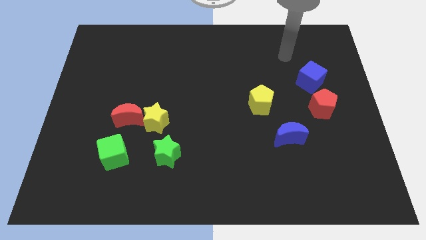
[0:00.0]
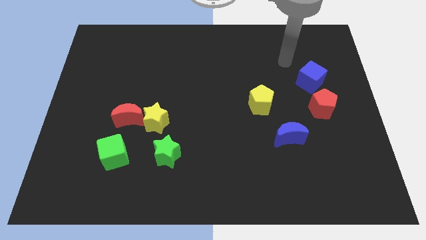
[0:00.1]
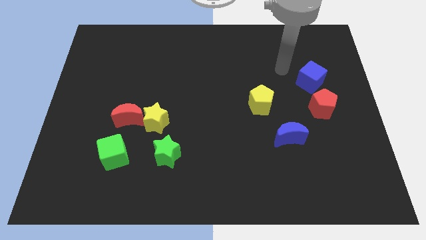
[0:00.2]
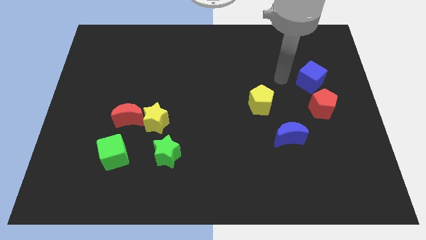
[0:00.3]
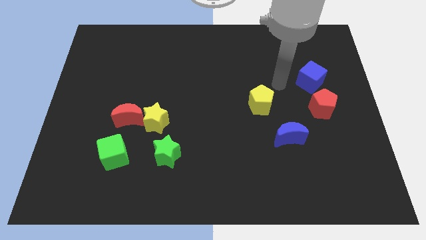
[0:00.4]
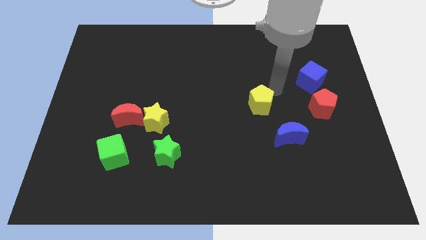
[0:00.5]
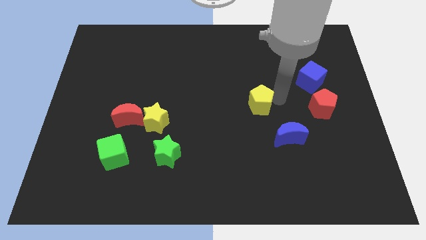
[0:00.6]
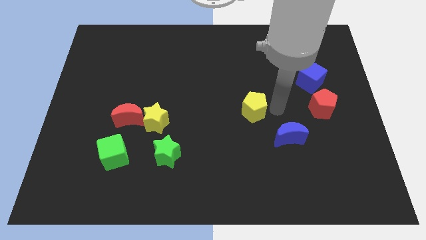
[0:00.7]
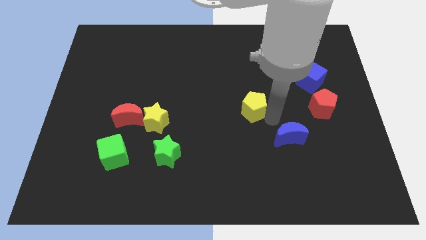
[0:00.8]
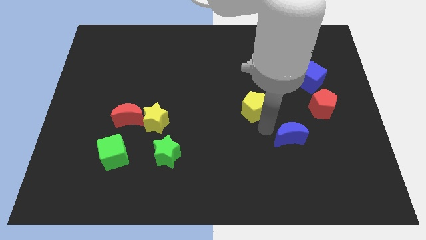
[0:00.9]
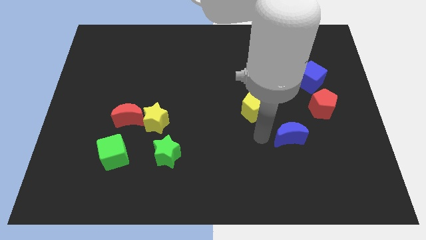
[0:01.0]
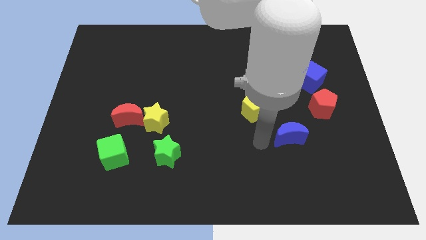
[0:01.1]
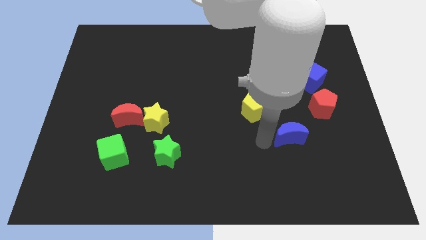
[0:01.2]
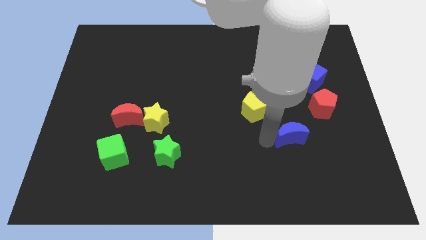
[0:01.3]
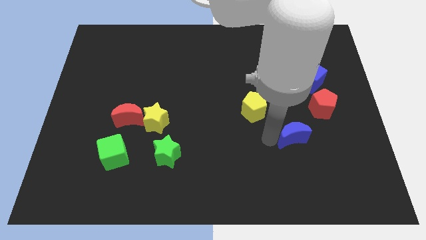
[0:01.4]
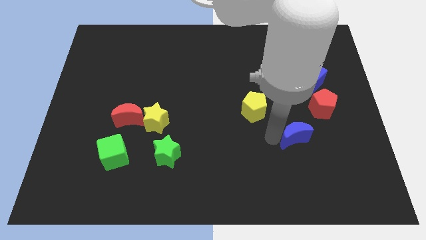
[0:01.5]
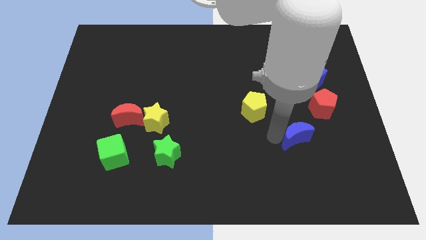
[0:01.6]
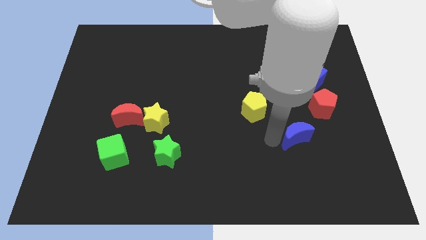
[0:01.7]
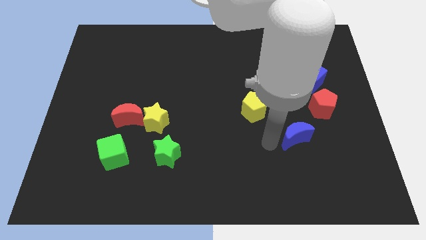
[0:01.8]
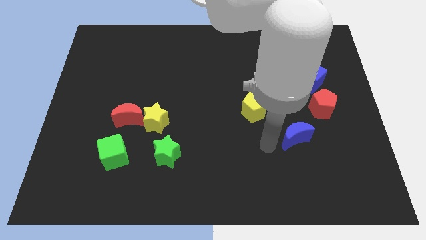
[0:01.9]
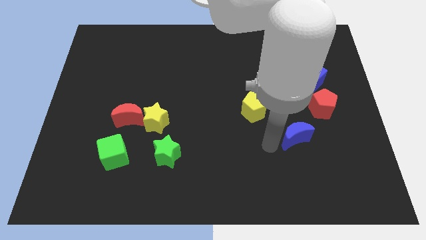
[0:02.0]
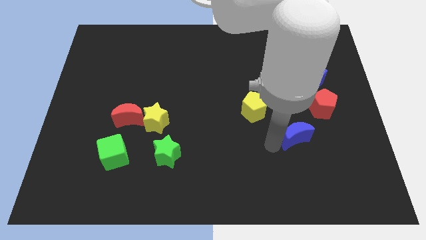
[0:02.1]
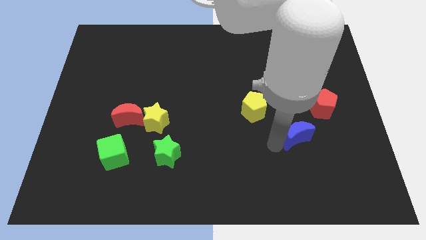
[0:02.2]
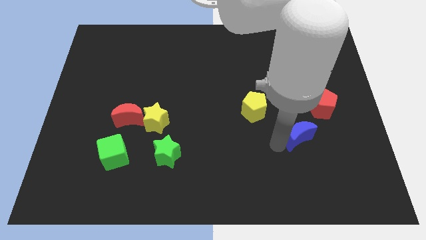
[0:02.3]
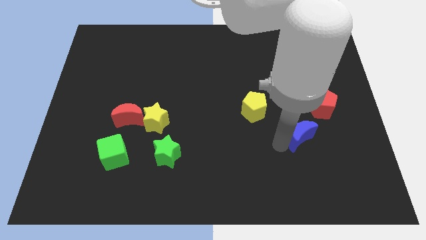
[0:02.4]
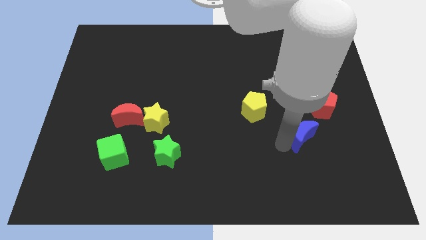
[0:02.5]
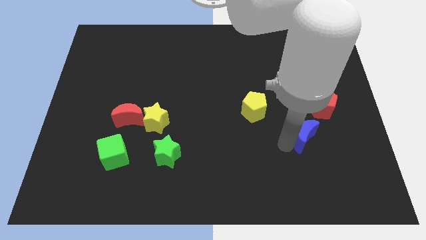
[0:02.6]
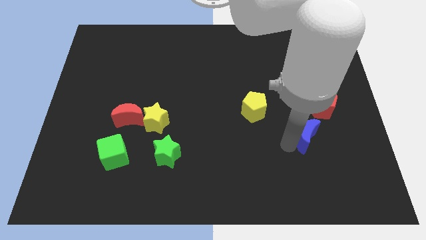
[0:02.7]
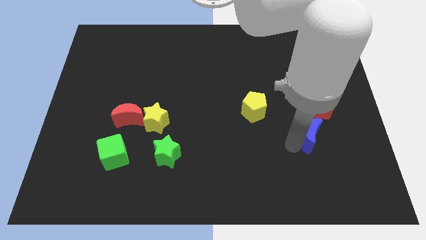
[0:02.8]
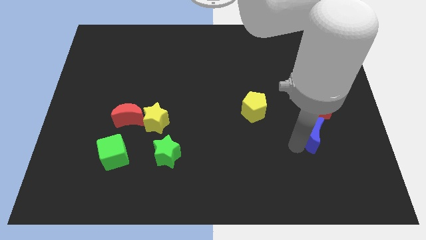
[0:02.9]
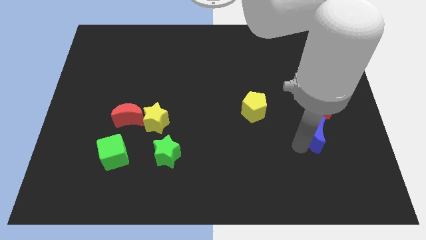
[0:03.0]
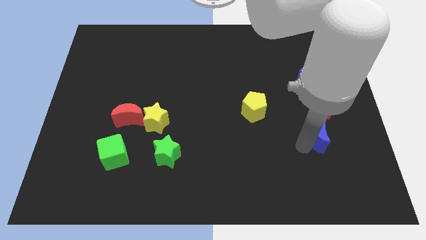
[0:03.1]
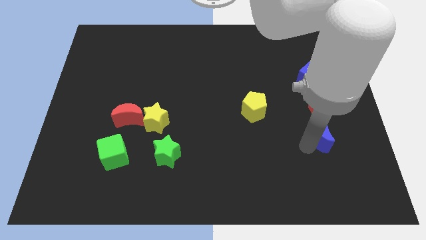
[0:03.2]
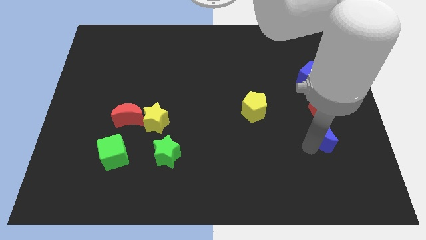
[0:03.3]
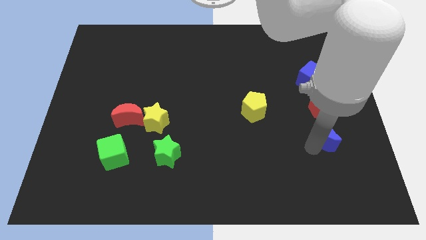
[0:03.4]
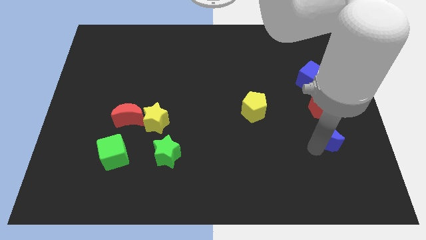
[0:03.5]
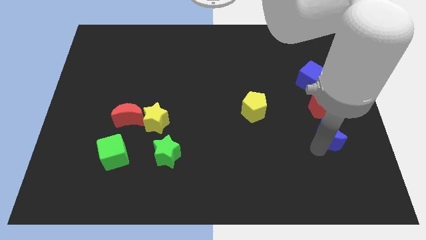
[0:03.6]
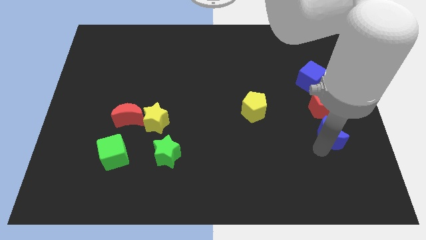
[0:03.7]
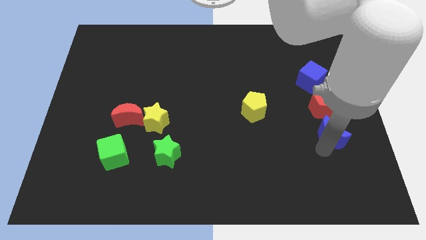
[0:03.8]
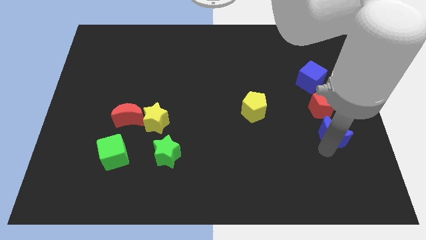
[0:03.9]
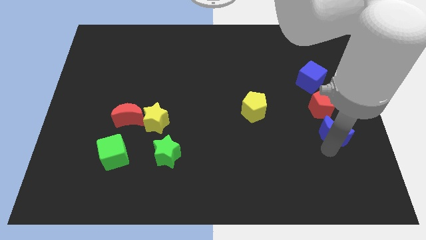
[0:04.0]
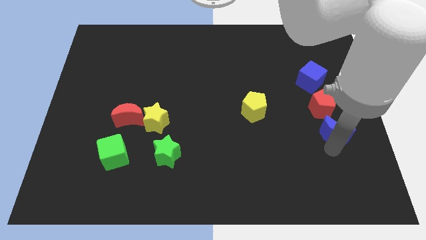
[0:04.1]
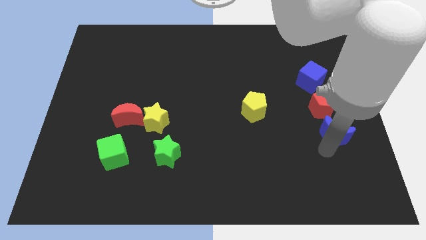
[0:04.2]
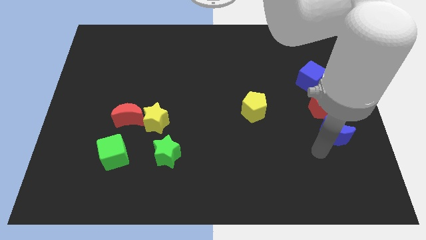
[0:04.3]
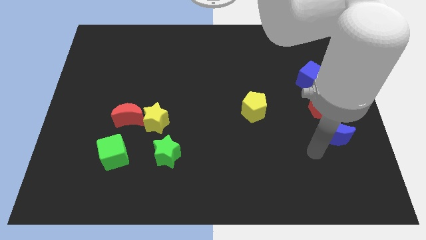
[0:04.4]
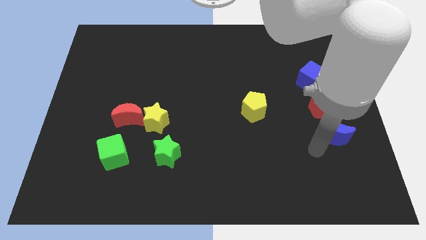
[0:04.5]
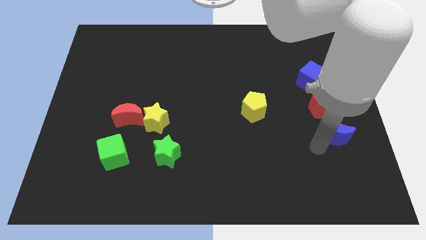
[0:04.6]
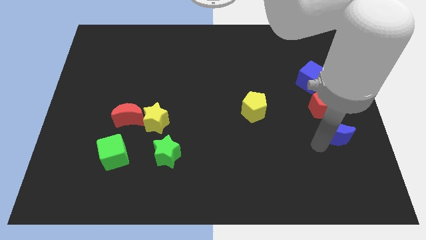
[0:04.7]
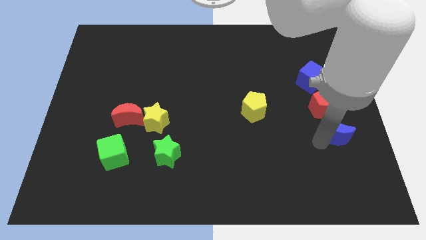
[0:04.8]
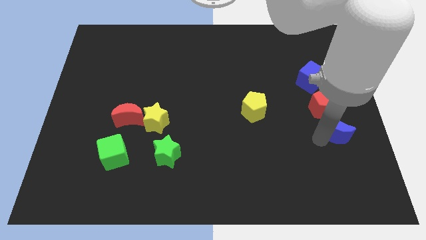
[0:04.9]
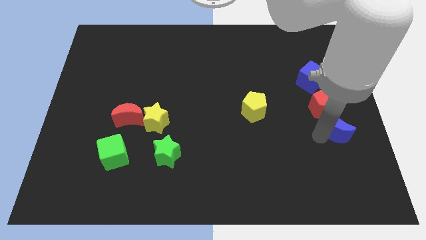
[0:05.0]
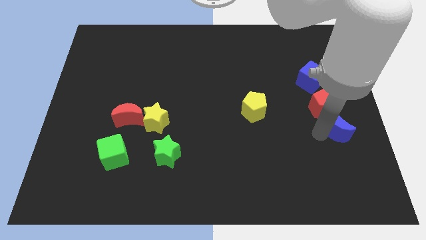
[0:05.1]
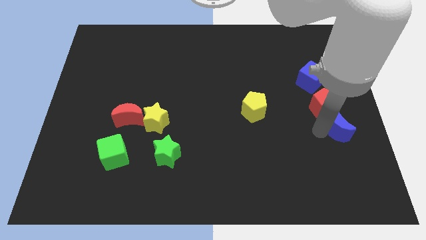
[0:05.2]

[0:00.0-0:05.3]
slide the blue moon to the right side

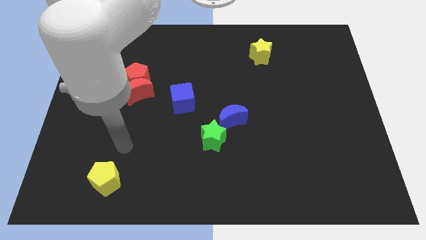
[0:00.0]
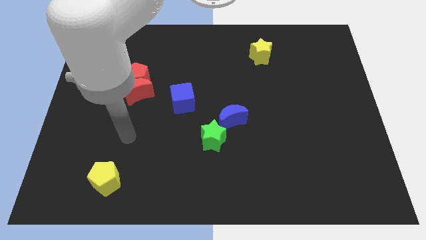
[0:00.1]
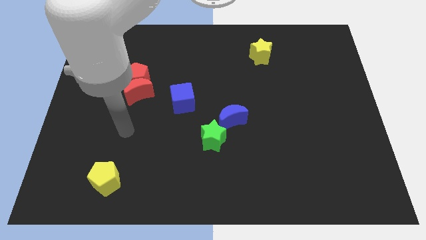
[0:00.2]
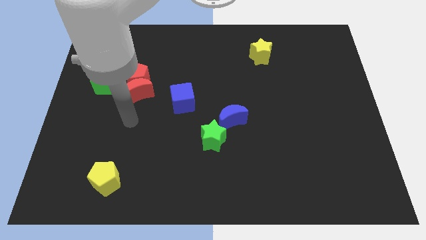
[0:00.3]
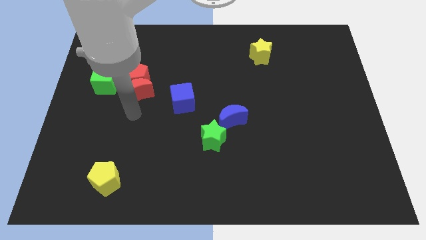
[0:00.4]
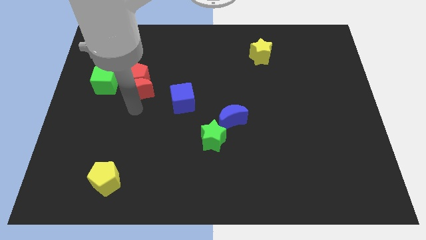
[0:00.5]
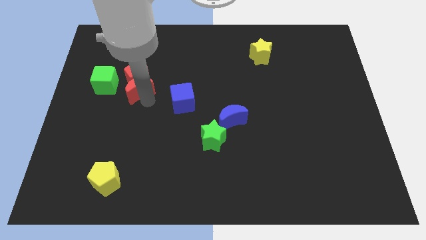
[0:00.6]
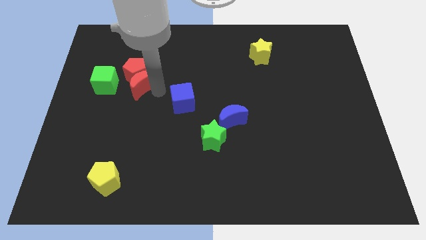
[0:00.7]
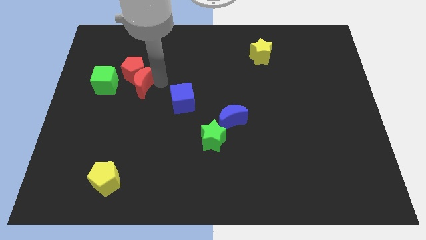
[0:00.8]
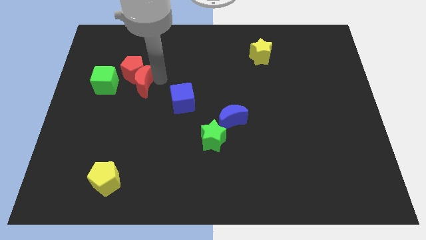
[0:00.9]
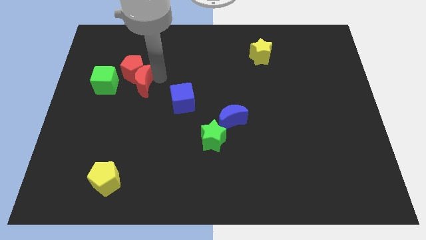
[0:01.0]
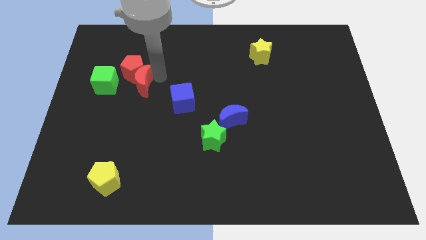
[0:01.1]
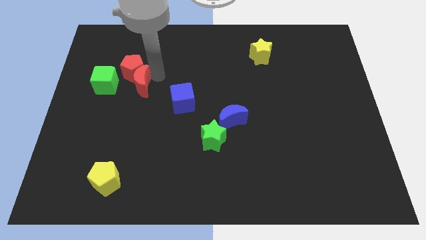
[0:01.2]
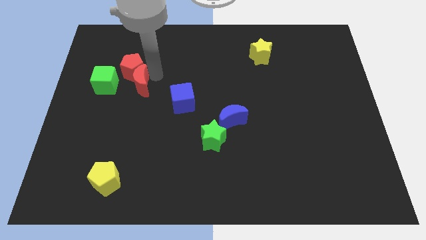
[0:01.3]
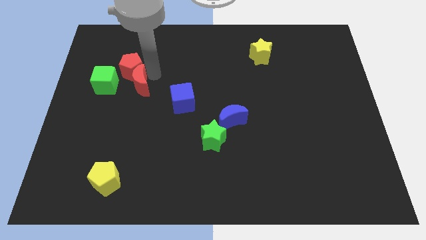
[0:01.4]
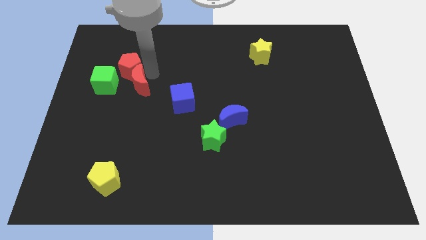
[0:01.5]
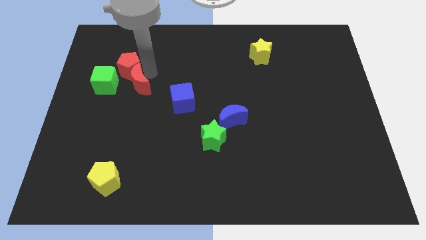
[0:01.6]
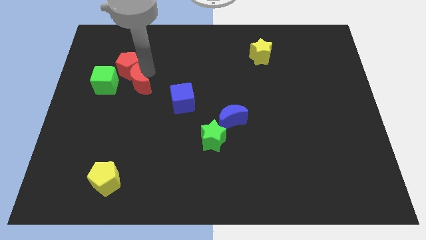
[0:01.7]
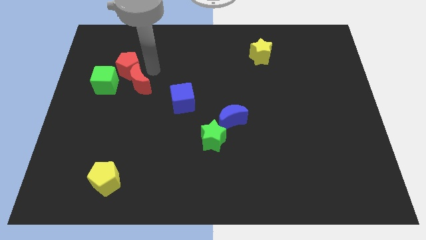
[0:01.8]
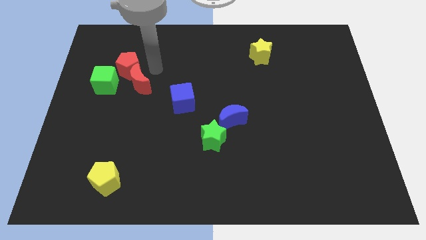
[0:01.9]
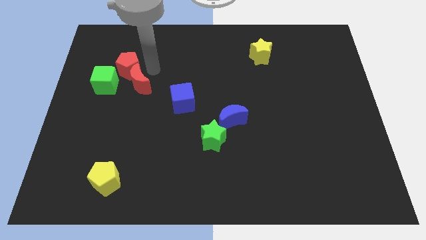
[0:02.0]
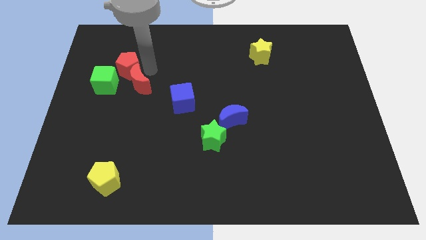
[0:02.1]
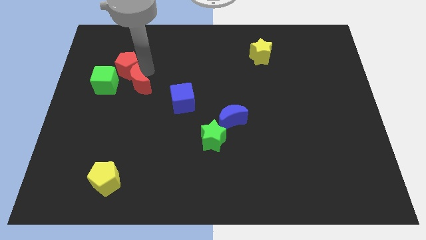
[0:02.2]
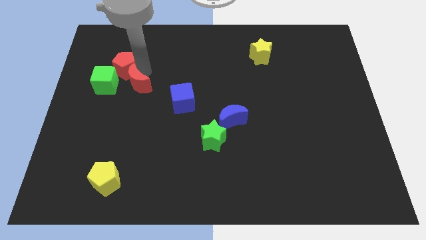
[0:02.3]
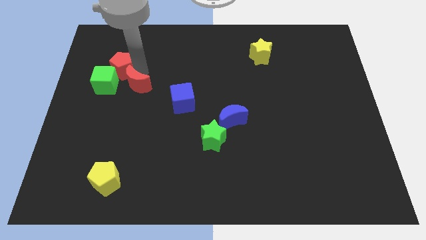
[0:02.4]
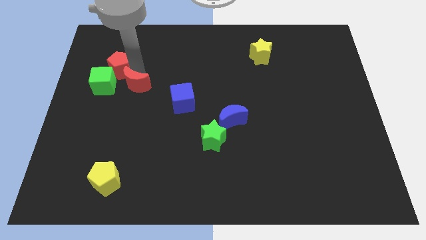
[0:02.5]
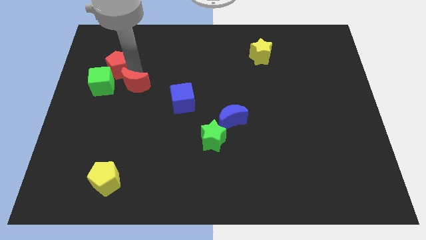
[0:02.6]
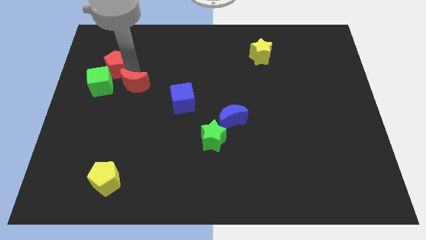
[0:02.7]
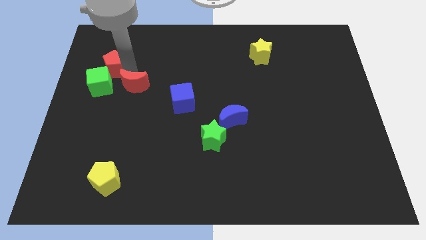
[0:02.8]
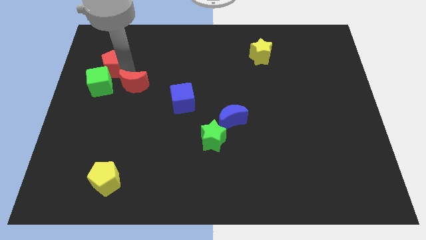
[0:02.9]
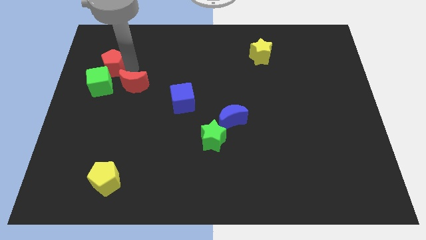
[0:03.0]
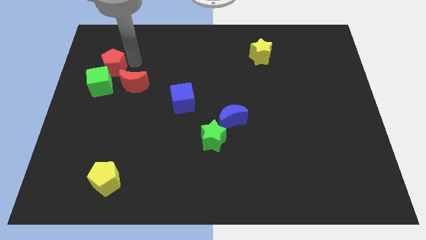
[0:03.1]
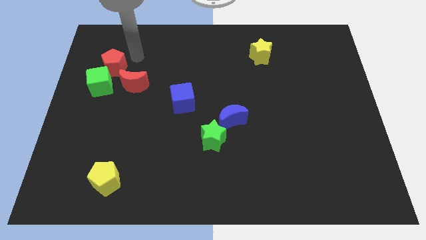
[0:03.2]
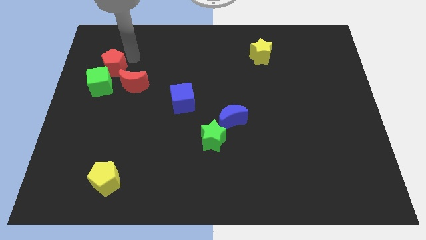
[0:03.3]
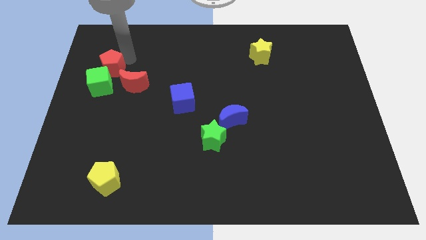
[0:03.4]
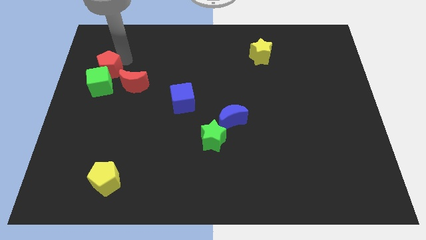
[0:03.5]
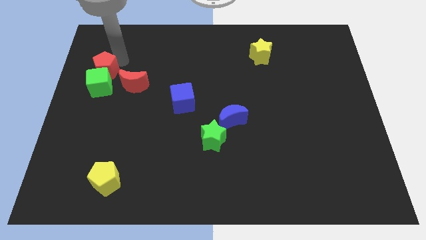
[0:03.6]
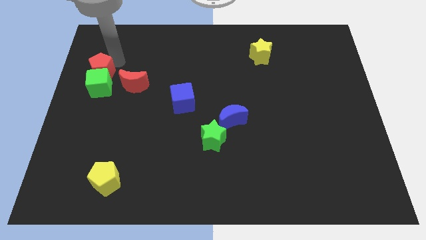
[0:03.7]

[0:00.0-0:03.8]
slide the red pentagon to the left side of the board
